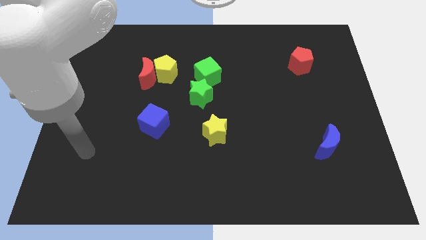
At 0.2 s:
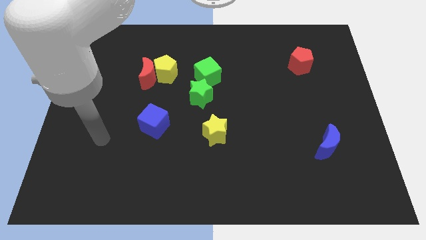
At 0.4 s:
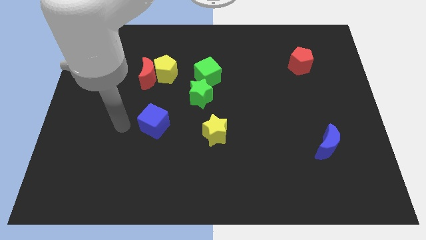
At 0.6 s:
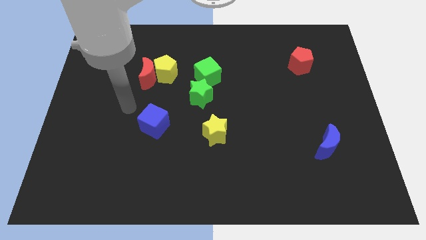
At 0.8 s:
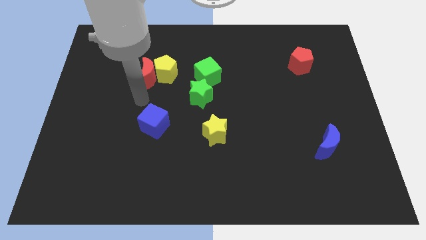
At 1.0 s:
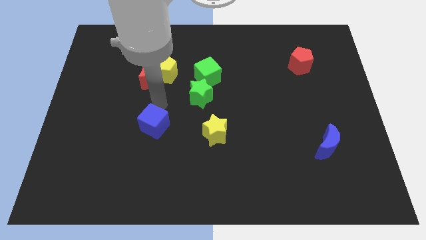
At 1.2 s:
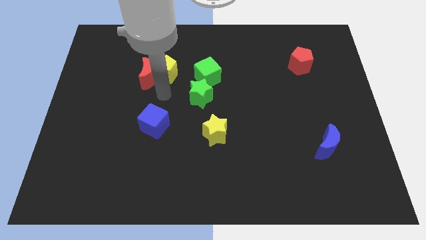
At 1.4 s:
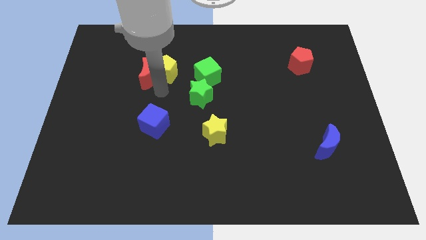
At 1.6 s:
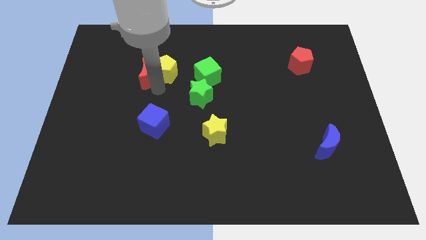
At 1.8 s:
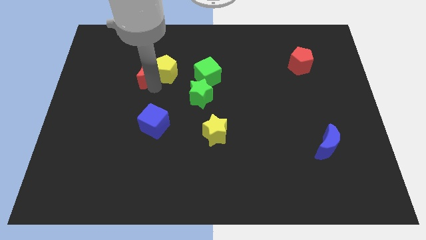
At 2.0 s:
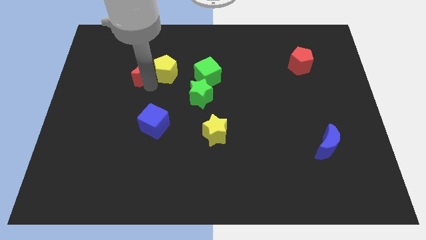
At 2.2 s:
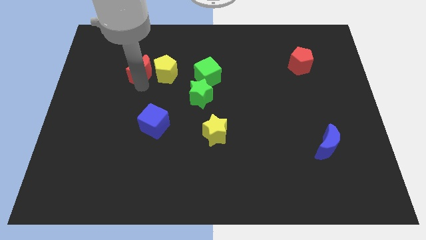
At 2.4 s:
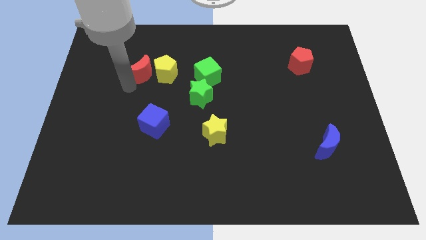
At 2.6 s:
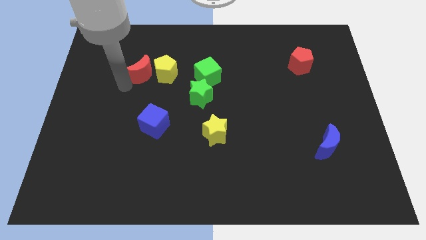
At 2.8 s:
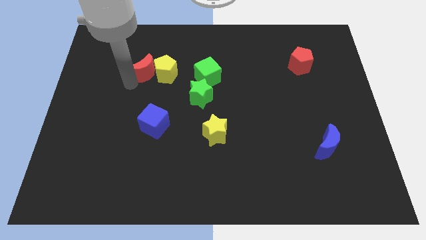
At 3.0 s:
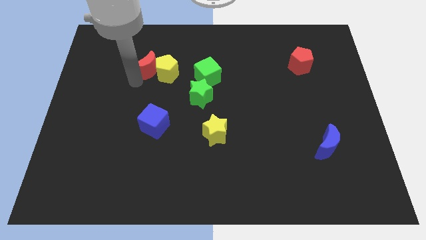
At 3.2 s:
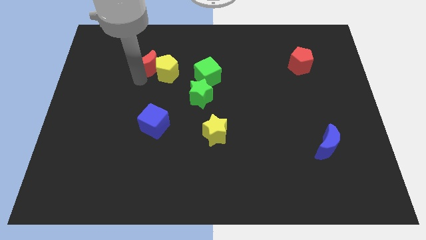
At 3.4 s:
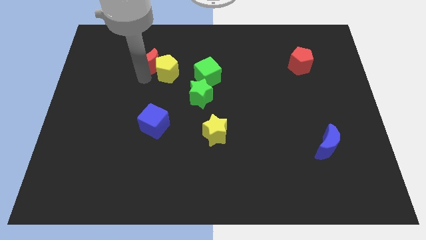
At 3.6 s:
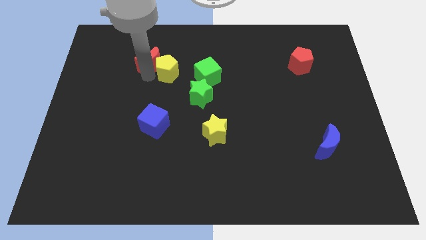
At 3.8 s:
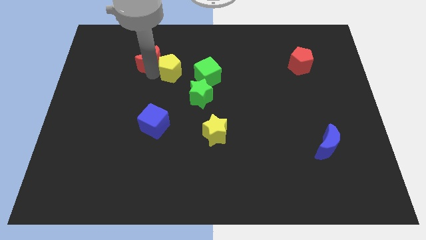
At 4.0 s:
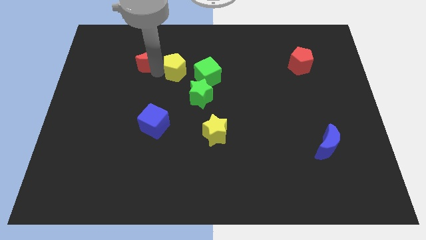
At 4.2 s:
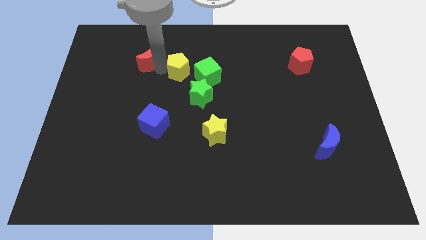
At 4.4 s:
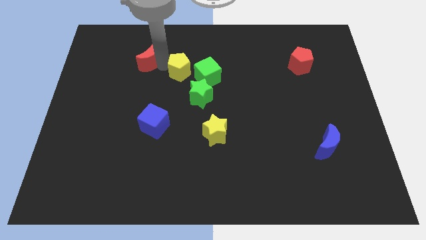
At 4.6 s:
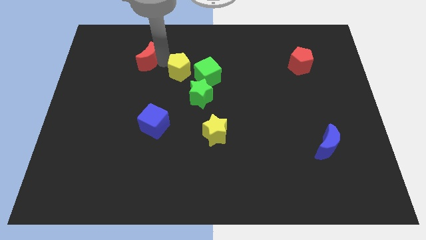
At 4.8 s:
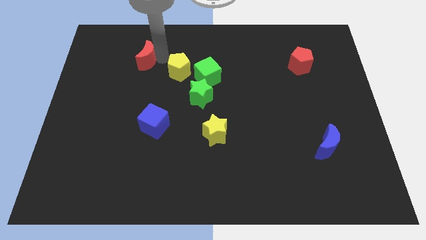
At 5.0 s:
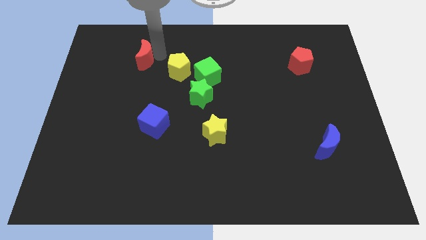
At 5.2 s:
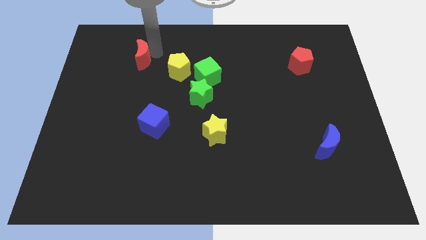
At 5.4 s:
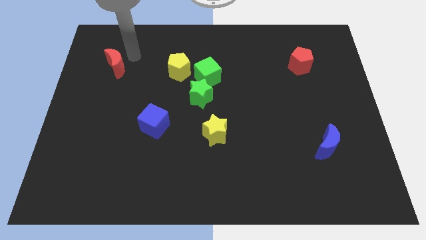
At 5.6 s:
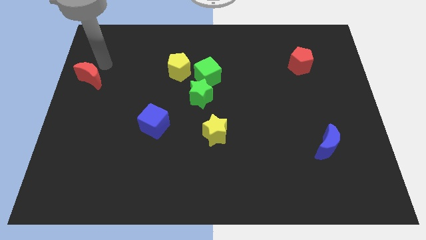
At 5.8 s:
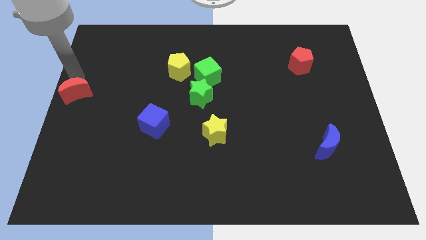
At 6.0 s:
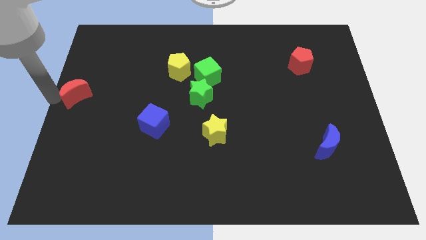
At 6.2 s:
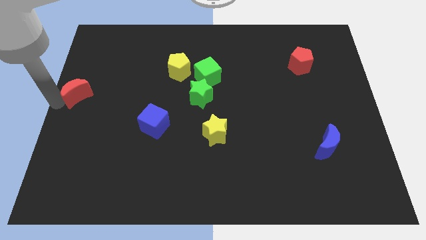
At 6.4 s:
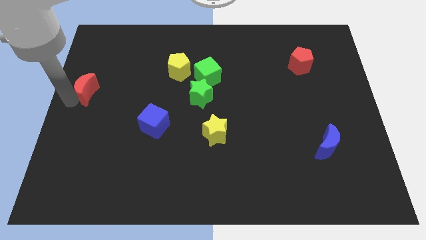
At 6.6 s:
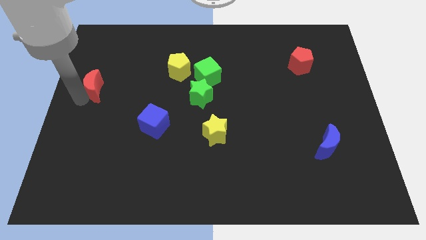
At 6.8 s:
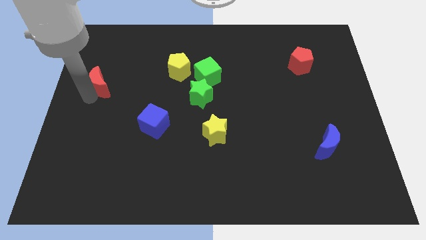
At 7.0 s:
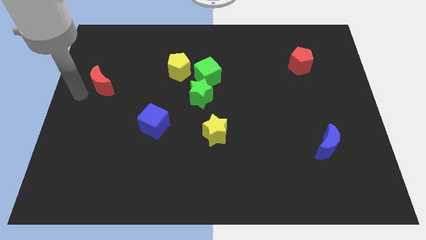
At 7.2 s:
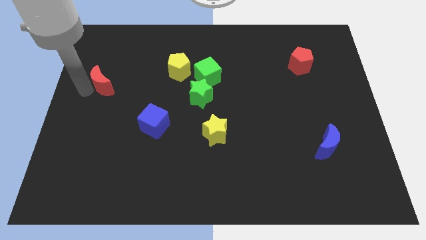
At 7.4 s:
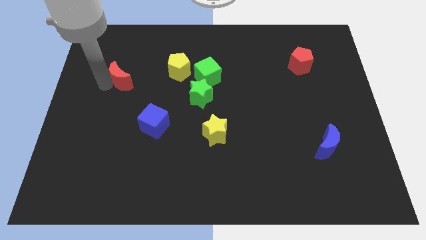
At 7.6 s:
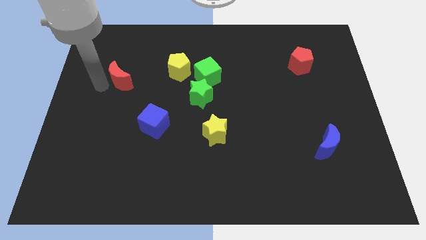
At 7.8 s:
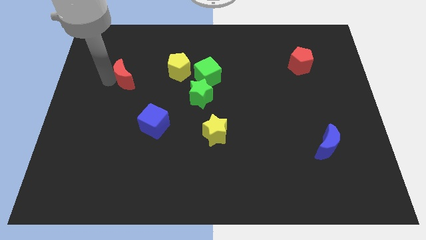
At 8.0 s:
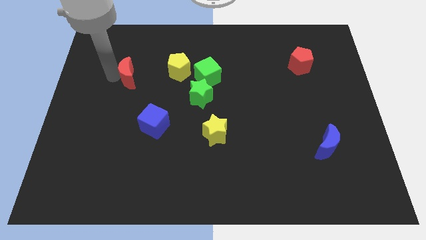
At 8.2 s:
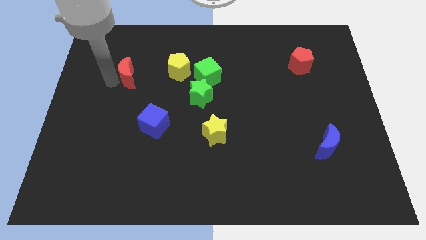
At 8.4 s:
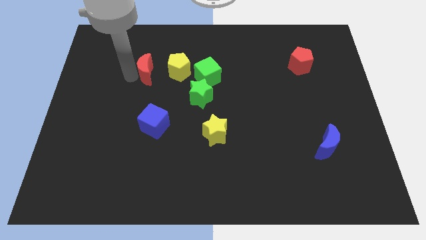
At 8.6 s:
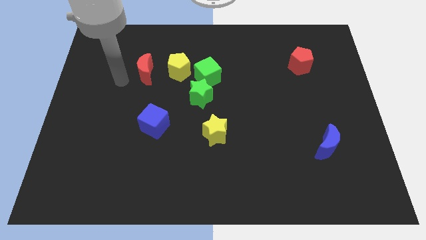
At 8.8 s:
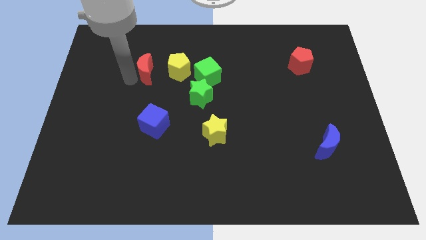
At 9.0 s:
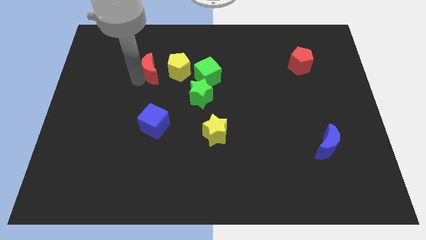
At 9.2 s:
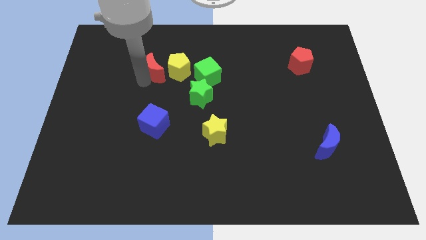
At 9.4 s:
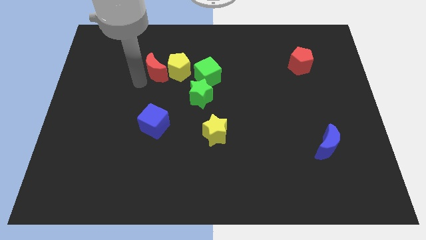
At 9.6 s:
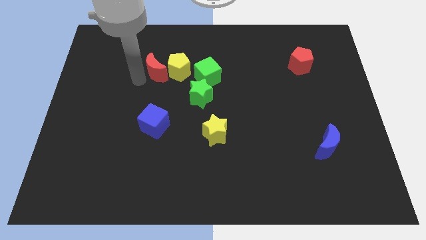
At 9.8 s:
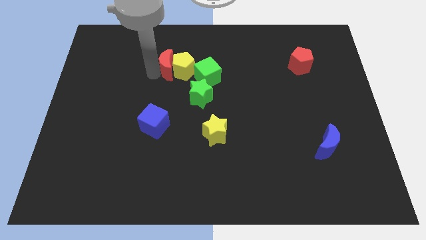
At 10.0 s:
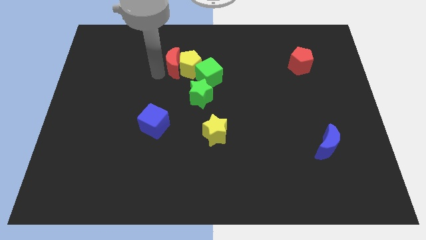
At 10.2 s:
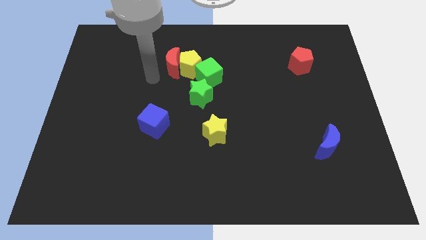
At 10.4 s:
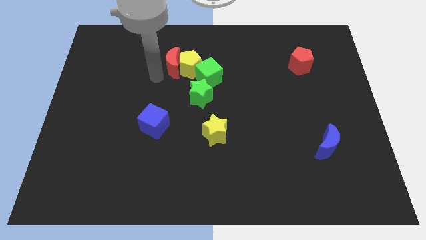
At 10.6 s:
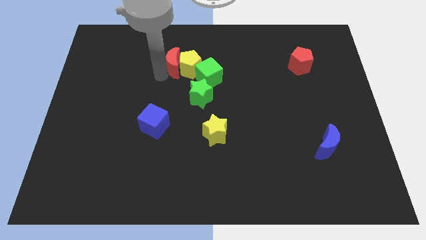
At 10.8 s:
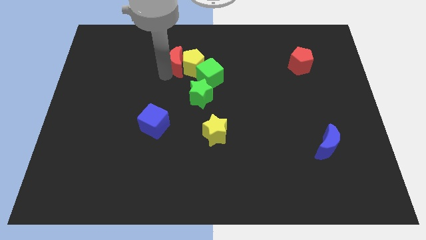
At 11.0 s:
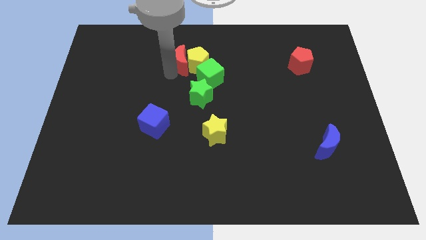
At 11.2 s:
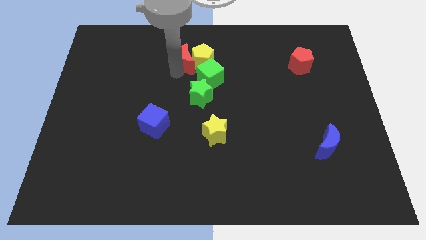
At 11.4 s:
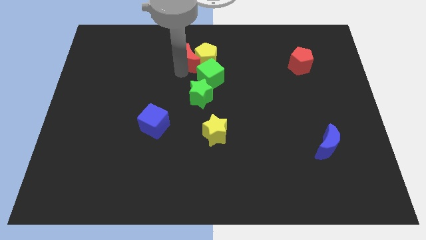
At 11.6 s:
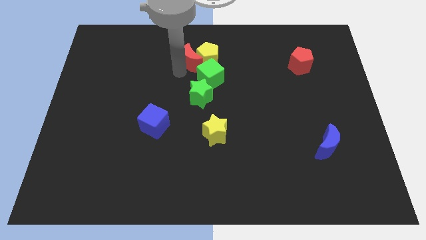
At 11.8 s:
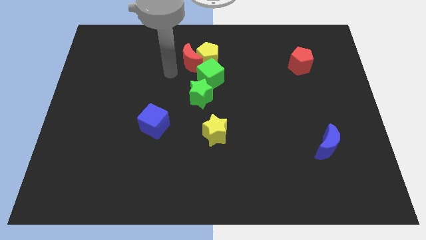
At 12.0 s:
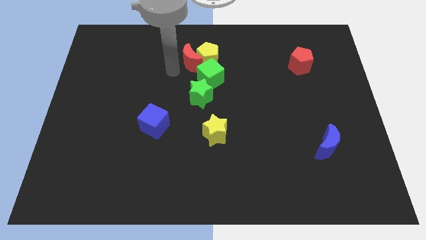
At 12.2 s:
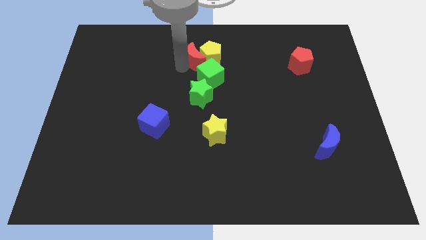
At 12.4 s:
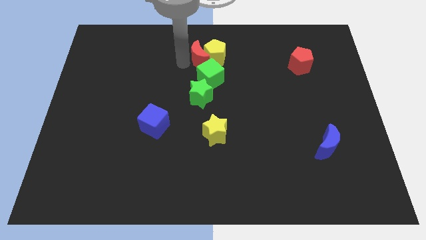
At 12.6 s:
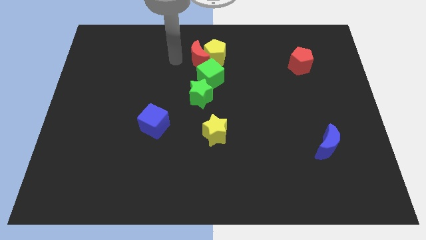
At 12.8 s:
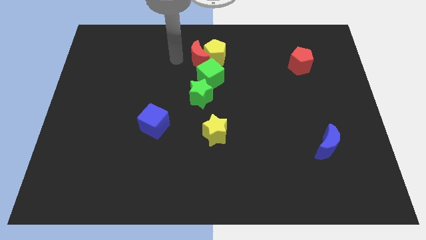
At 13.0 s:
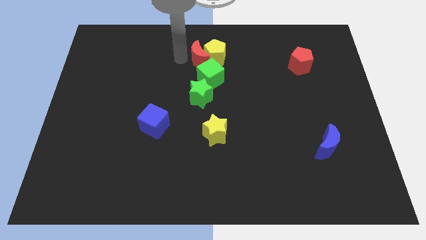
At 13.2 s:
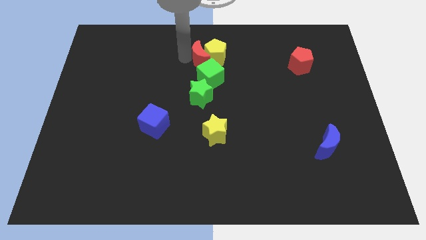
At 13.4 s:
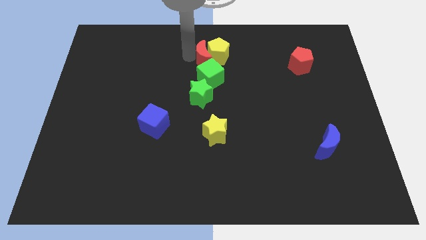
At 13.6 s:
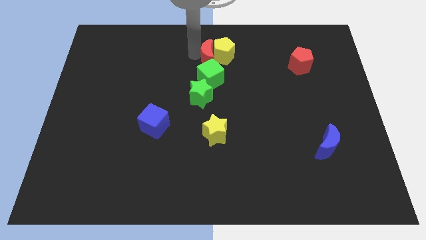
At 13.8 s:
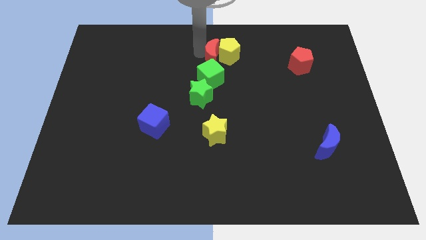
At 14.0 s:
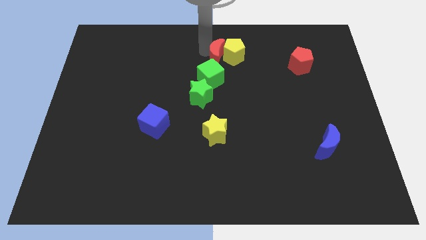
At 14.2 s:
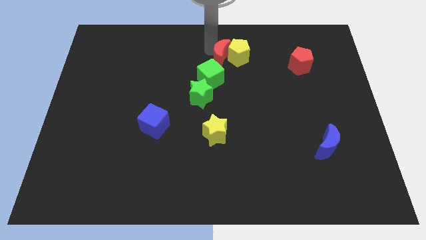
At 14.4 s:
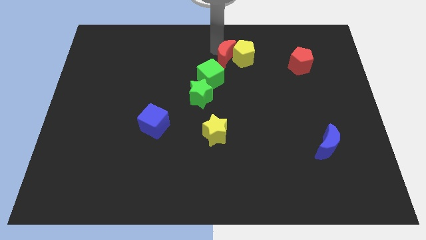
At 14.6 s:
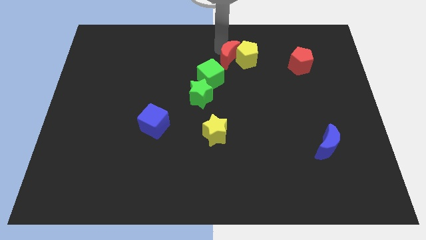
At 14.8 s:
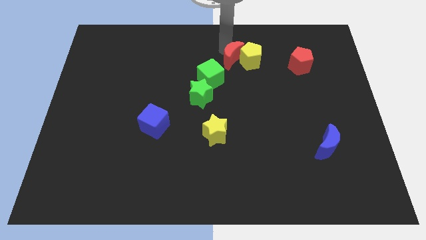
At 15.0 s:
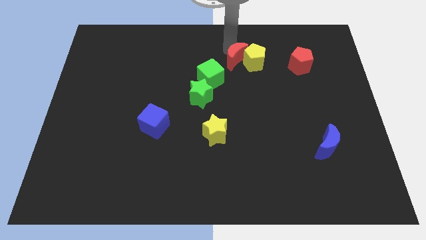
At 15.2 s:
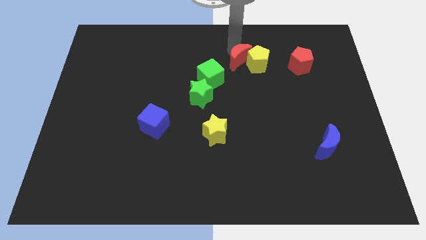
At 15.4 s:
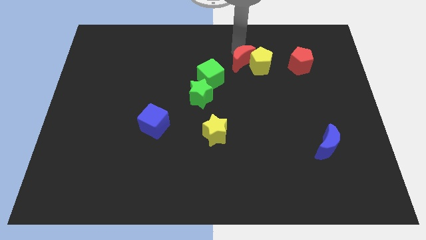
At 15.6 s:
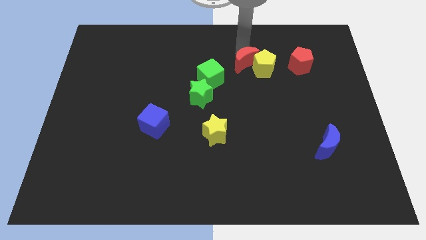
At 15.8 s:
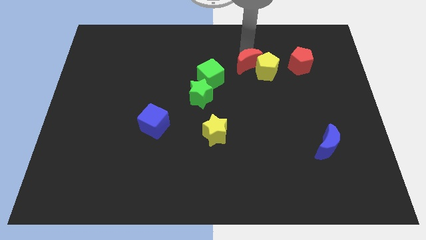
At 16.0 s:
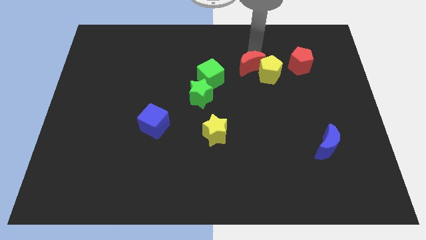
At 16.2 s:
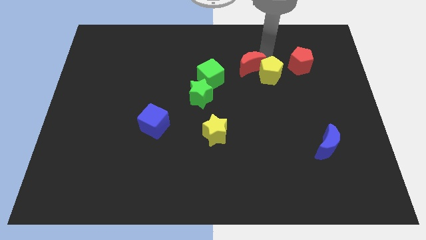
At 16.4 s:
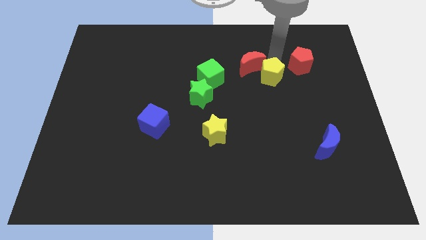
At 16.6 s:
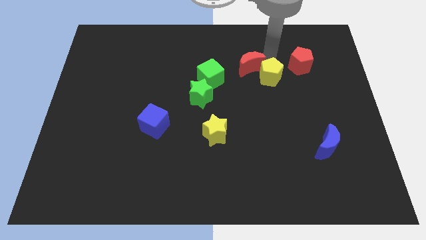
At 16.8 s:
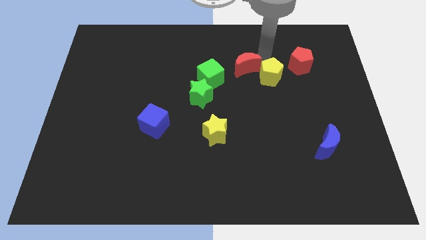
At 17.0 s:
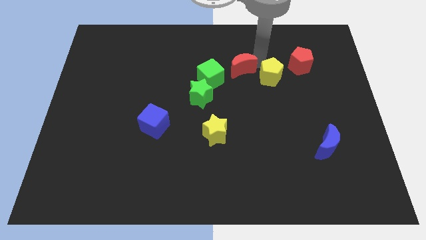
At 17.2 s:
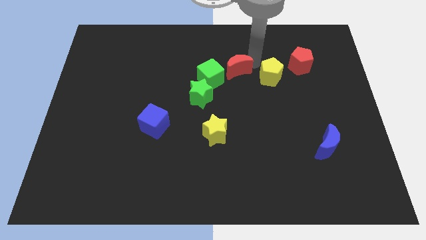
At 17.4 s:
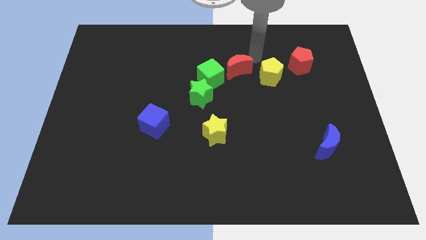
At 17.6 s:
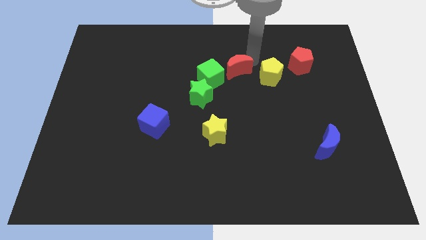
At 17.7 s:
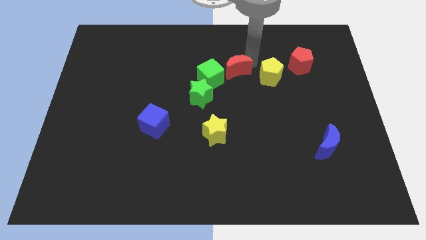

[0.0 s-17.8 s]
put the red moon diagonally up and to the right of the green star
